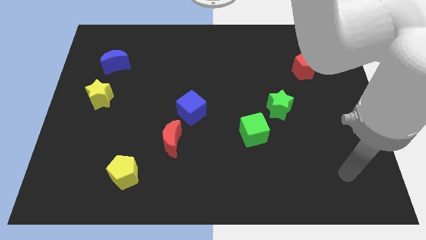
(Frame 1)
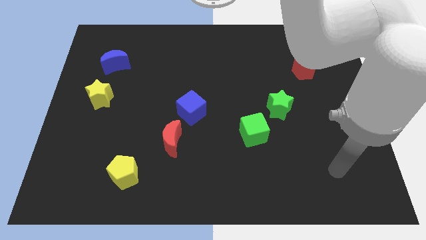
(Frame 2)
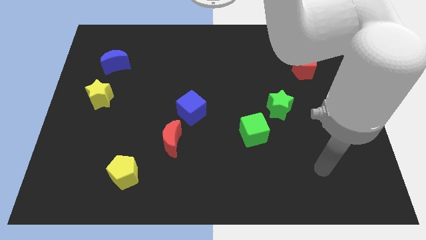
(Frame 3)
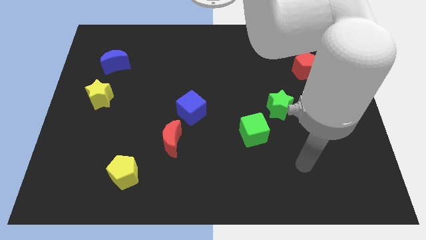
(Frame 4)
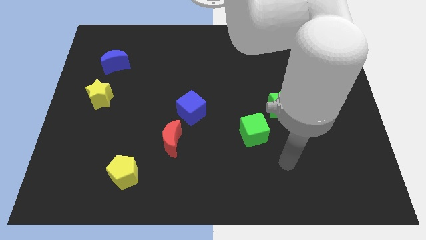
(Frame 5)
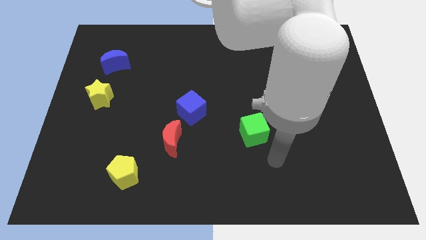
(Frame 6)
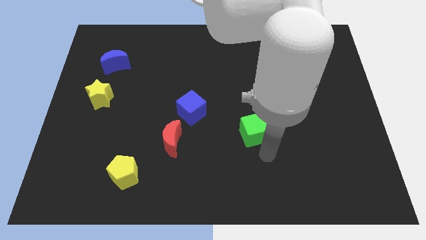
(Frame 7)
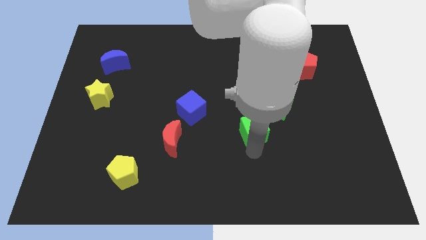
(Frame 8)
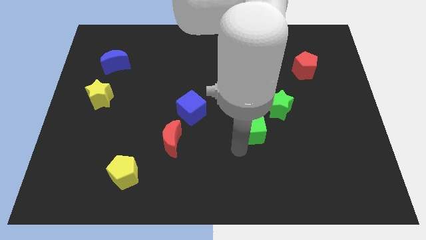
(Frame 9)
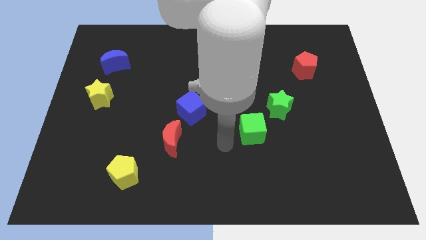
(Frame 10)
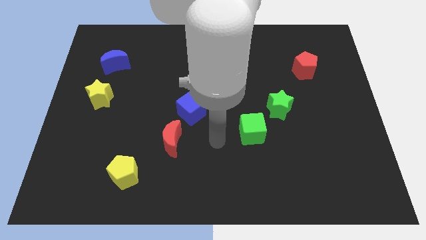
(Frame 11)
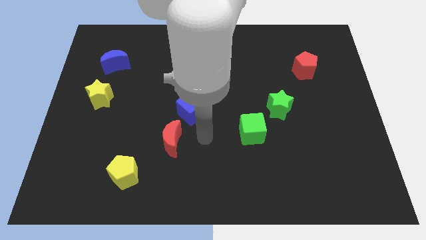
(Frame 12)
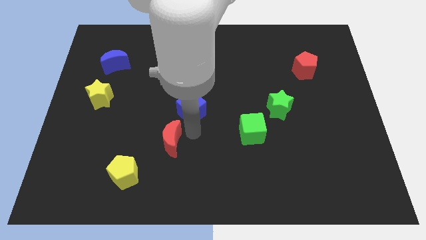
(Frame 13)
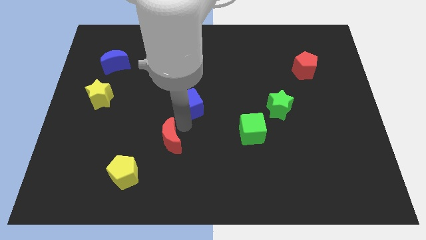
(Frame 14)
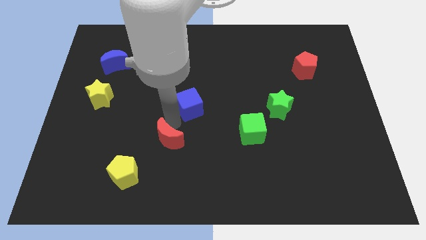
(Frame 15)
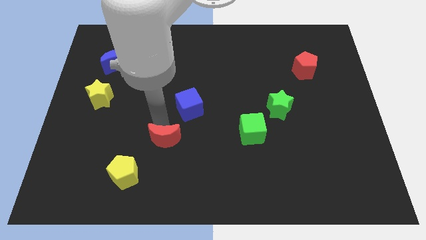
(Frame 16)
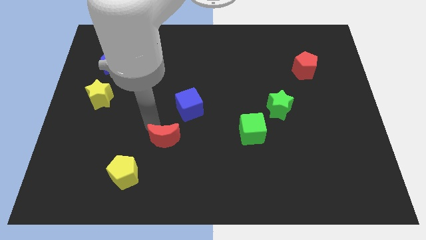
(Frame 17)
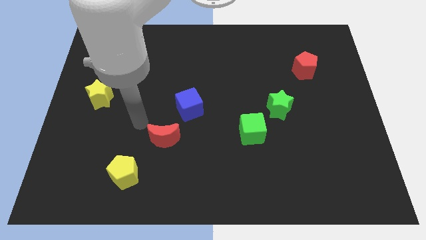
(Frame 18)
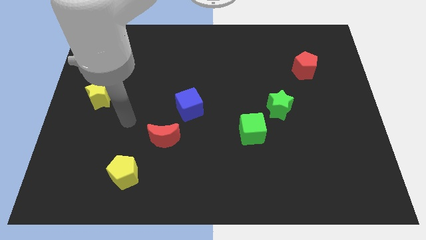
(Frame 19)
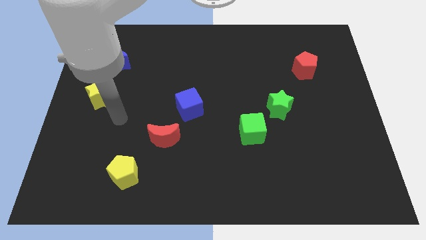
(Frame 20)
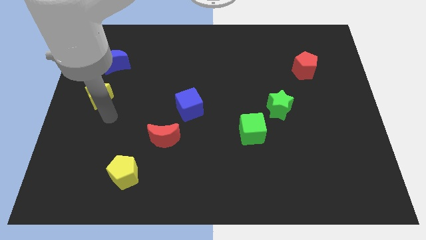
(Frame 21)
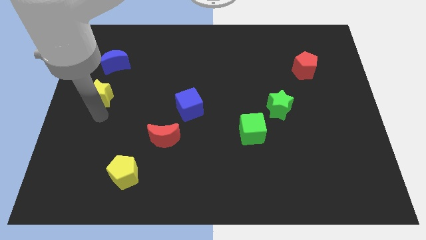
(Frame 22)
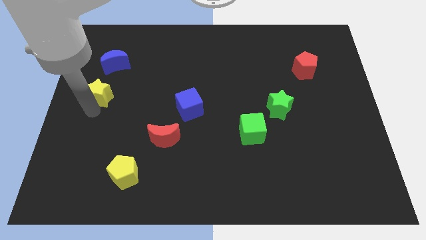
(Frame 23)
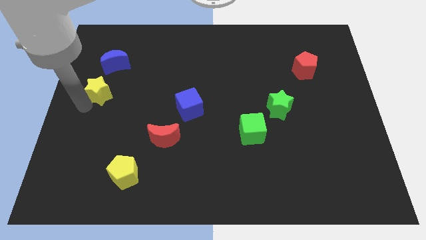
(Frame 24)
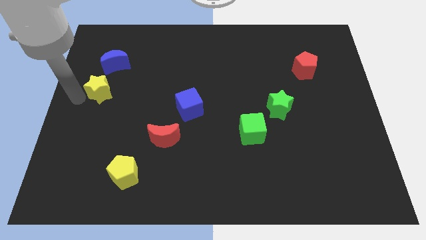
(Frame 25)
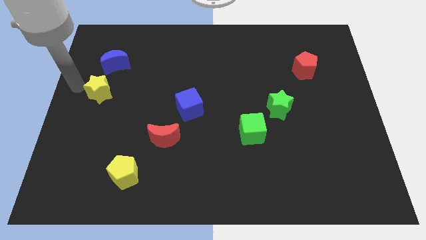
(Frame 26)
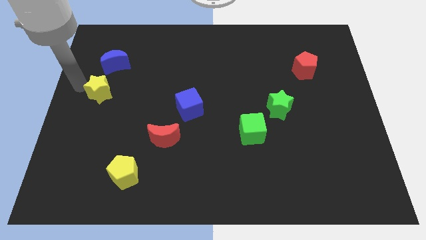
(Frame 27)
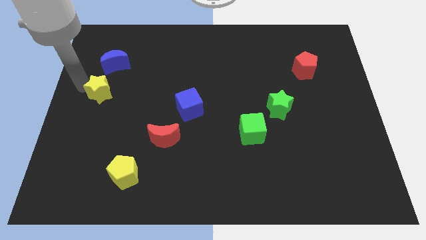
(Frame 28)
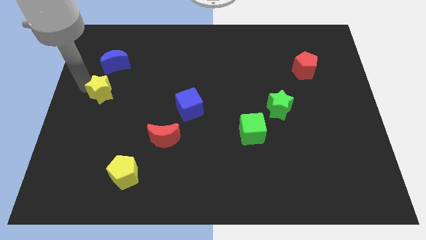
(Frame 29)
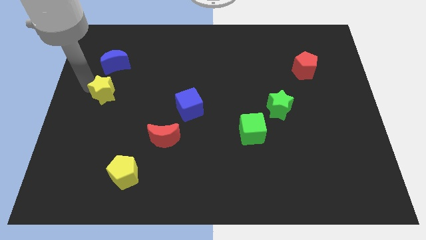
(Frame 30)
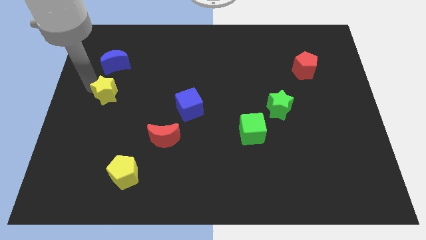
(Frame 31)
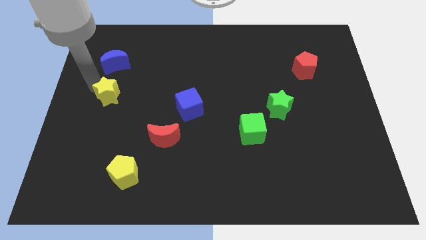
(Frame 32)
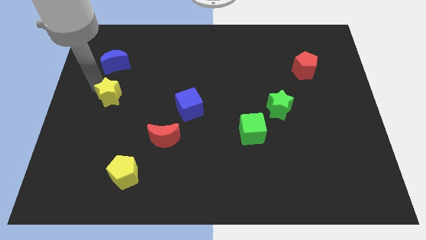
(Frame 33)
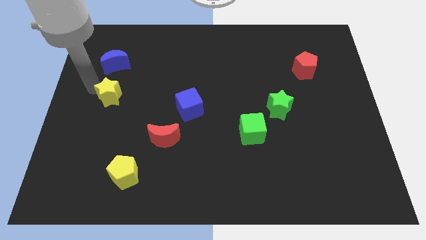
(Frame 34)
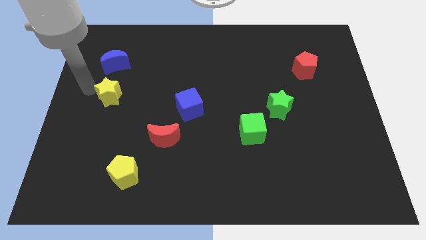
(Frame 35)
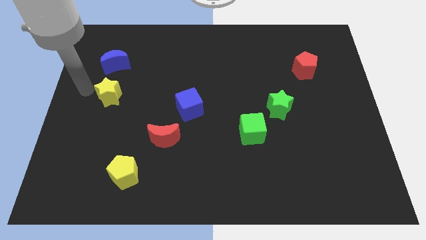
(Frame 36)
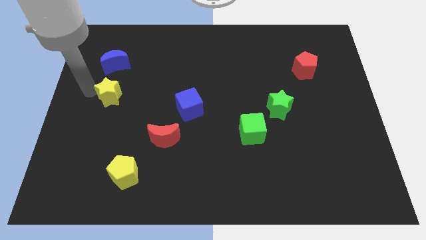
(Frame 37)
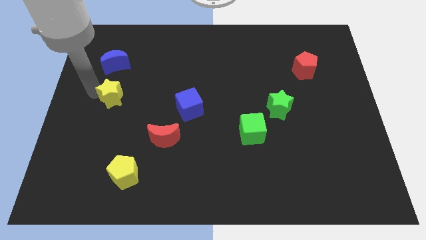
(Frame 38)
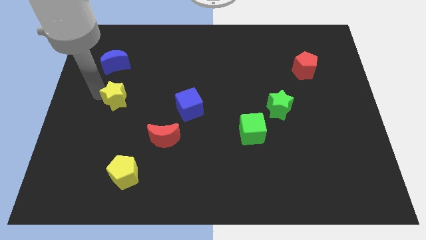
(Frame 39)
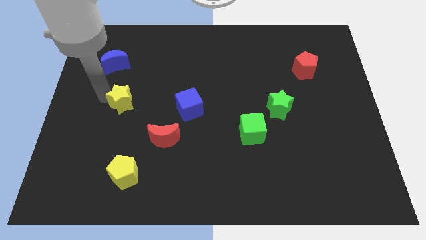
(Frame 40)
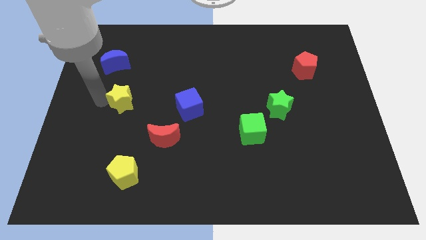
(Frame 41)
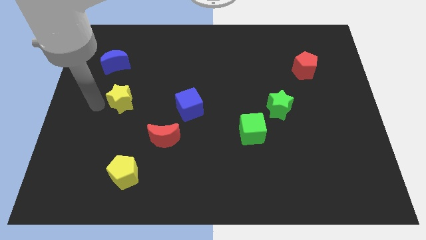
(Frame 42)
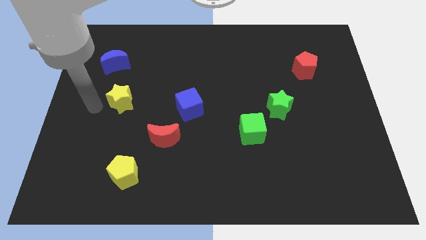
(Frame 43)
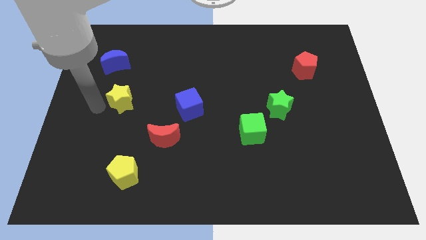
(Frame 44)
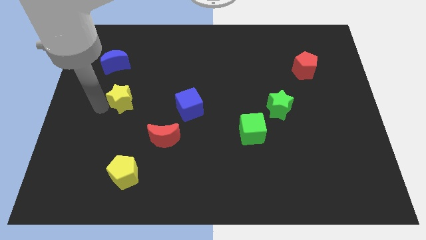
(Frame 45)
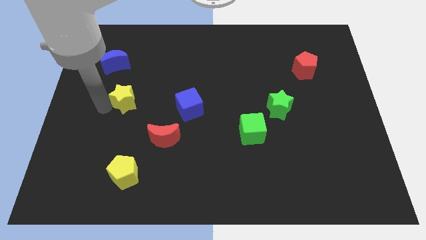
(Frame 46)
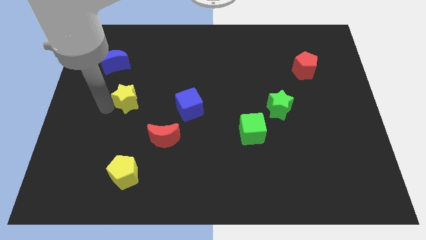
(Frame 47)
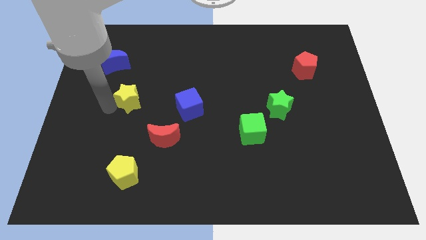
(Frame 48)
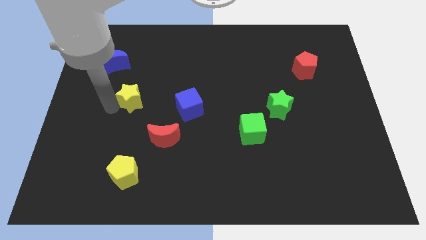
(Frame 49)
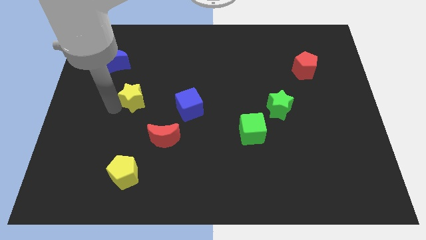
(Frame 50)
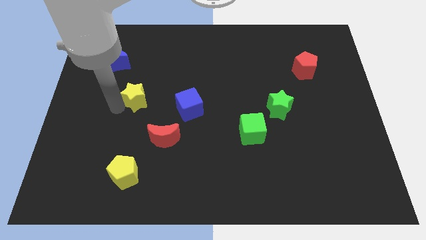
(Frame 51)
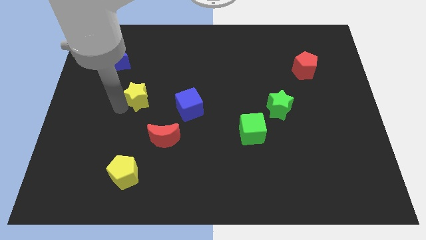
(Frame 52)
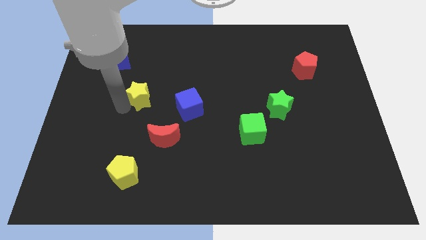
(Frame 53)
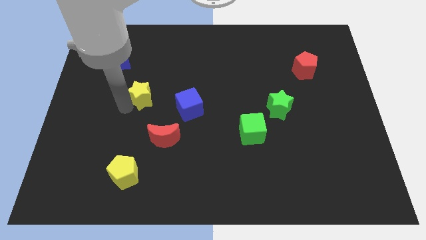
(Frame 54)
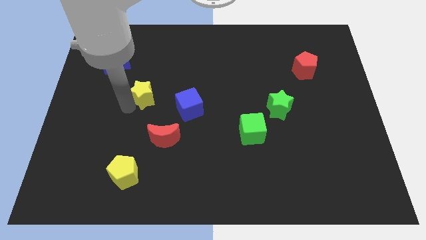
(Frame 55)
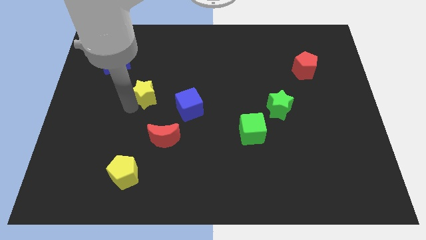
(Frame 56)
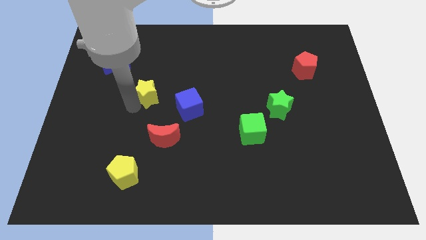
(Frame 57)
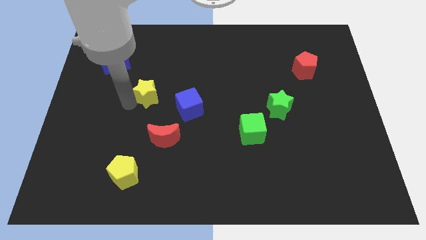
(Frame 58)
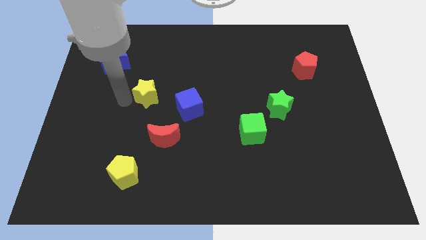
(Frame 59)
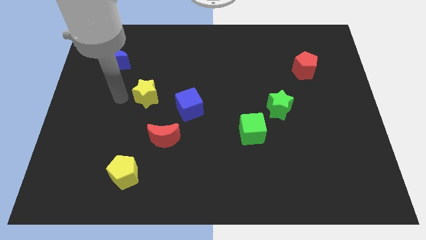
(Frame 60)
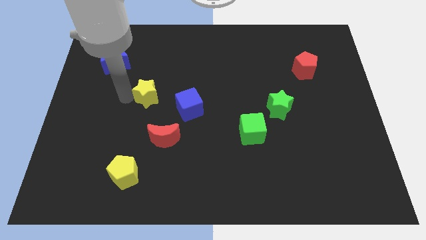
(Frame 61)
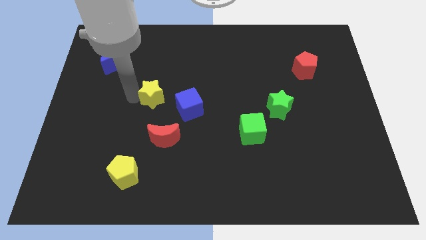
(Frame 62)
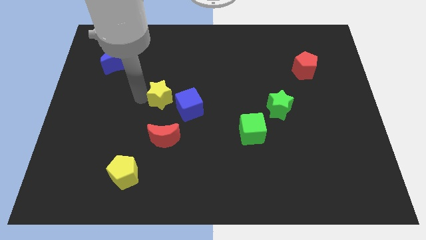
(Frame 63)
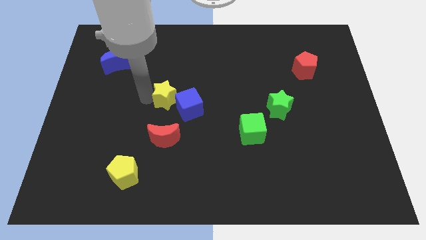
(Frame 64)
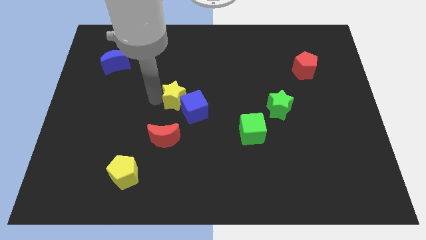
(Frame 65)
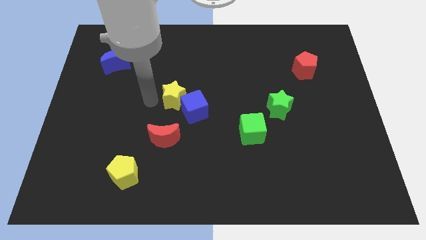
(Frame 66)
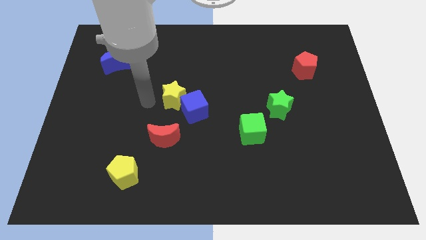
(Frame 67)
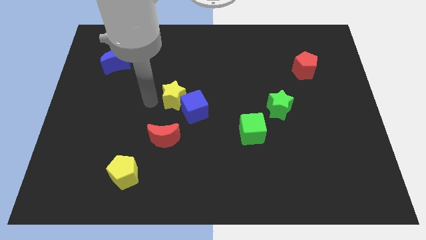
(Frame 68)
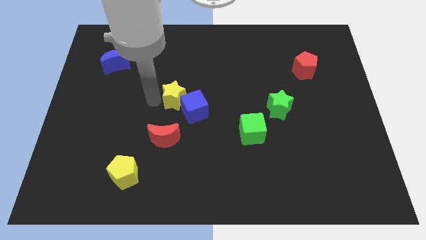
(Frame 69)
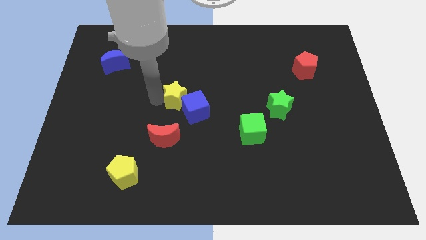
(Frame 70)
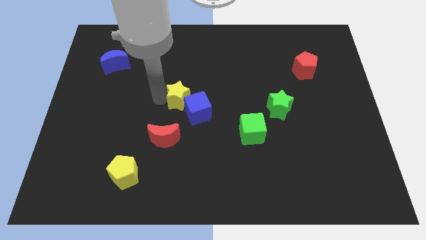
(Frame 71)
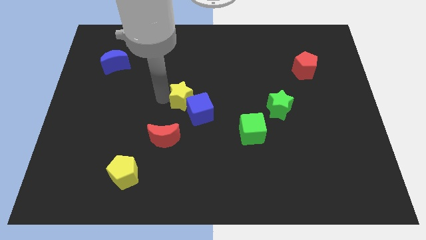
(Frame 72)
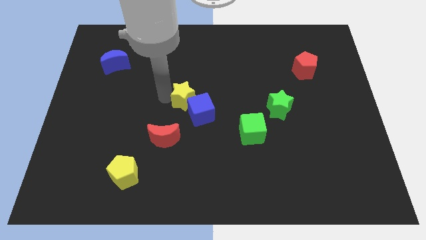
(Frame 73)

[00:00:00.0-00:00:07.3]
slide the yellow star right

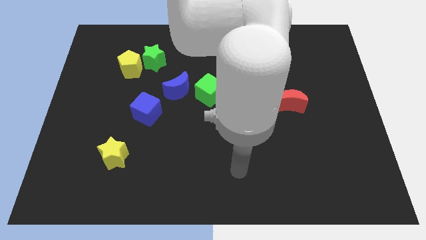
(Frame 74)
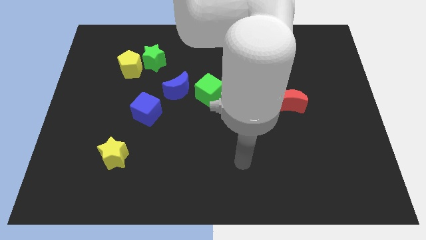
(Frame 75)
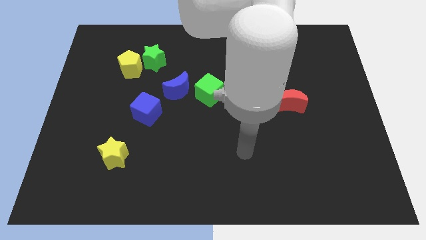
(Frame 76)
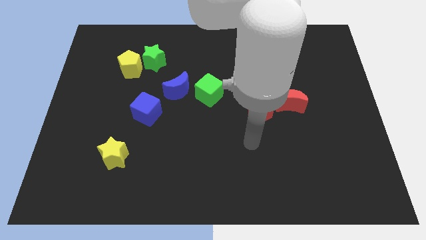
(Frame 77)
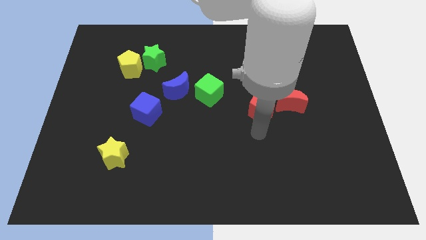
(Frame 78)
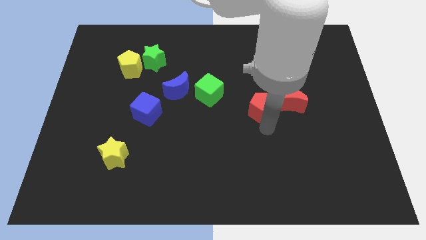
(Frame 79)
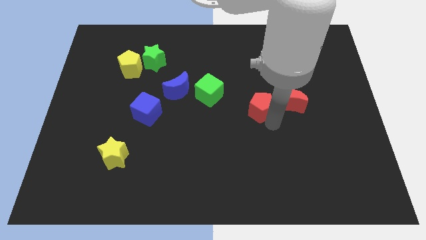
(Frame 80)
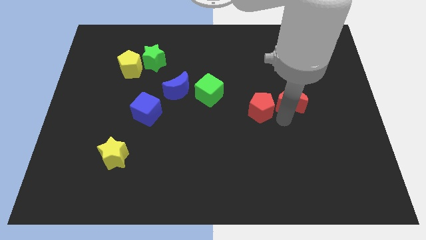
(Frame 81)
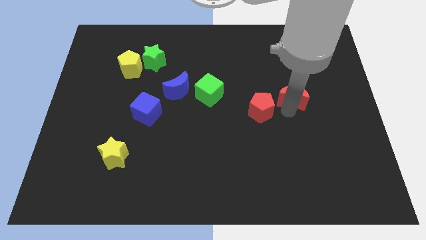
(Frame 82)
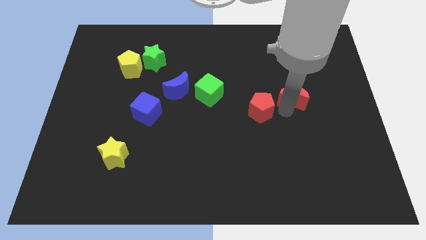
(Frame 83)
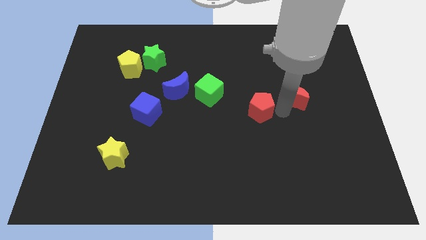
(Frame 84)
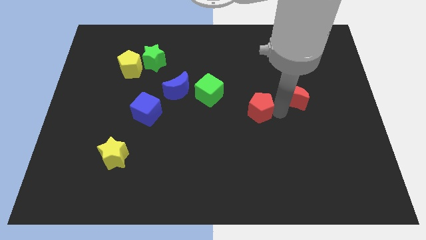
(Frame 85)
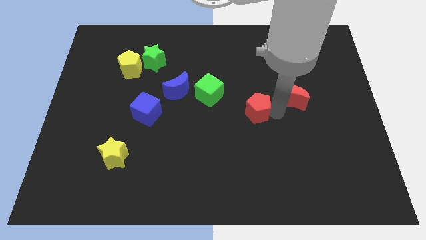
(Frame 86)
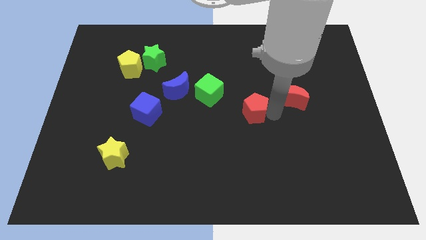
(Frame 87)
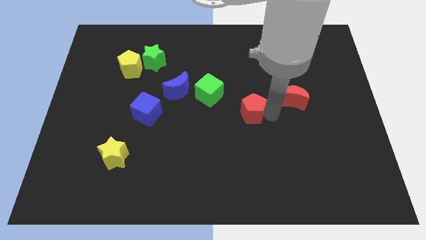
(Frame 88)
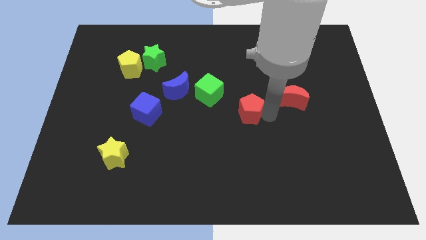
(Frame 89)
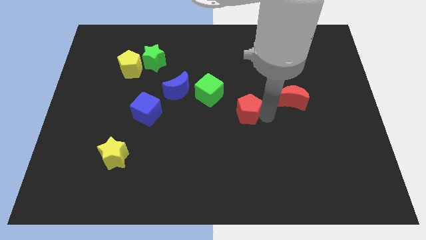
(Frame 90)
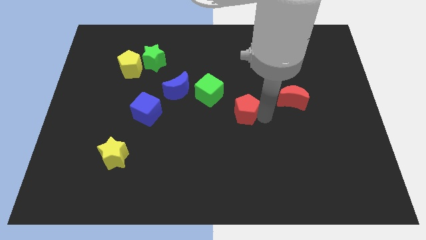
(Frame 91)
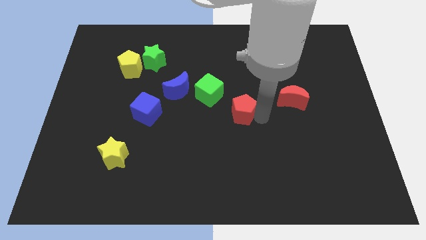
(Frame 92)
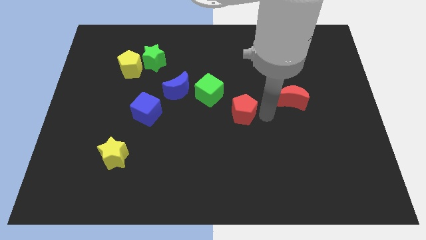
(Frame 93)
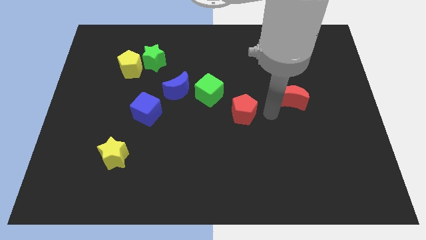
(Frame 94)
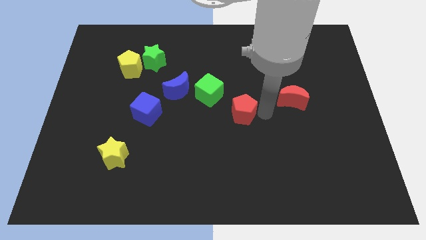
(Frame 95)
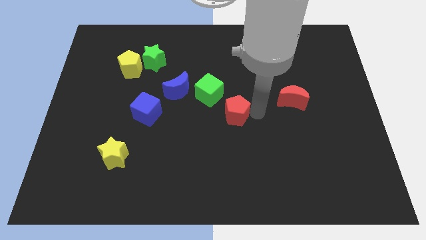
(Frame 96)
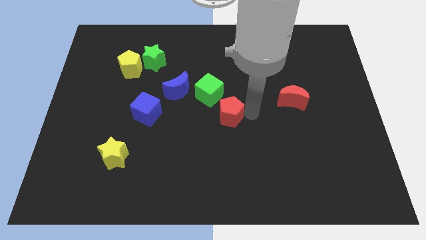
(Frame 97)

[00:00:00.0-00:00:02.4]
slightly push the red pentagon to the left
